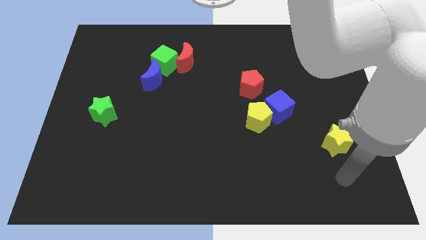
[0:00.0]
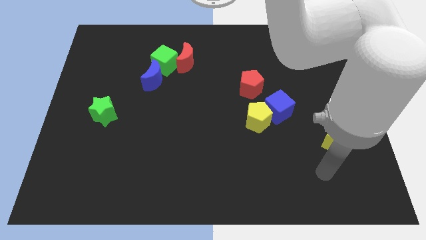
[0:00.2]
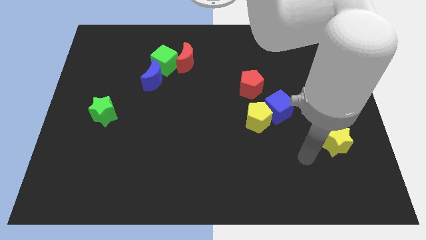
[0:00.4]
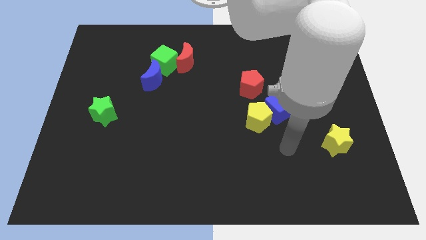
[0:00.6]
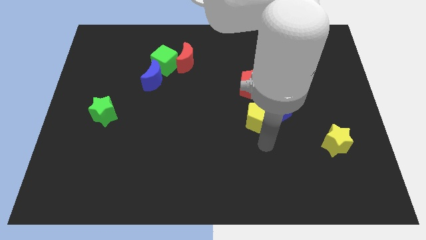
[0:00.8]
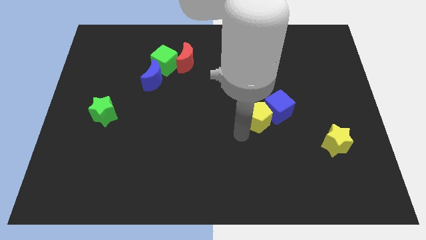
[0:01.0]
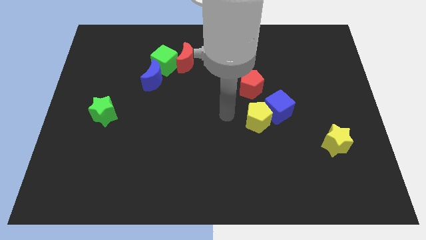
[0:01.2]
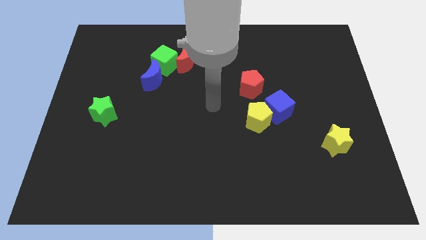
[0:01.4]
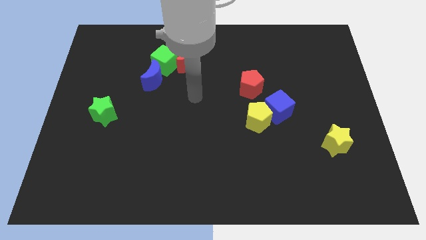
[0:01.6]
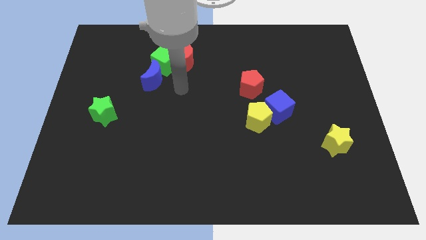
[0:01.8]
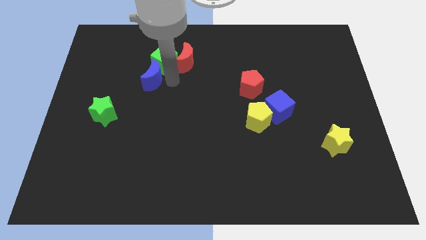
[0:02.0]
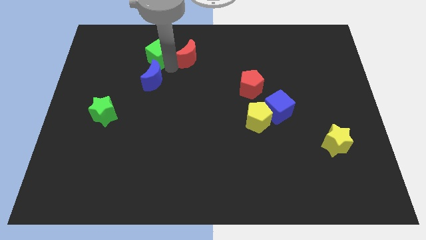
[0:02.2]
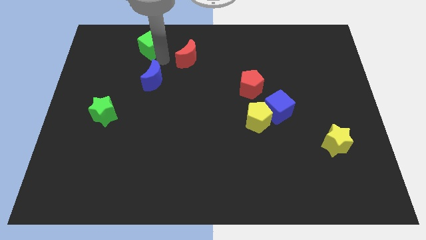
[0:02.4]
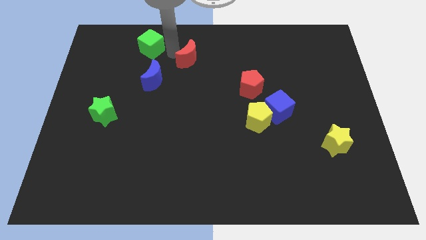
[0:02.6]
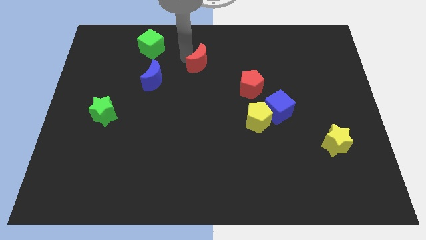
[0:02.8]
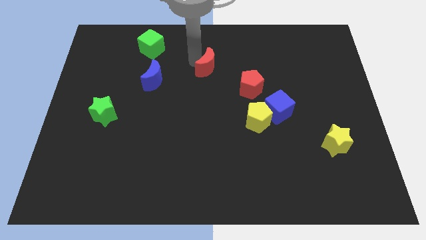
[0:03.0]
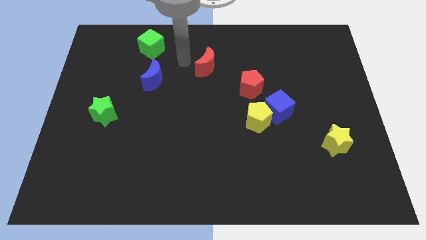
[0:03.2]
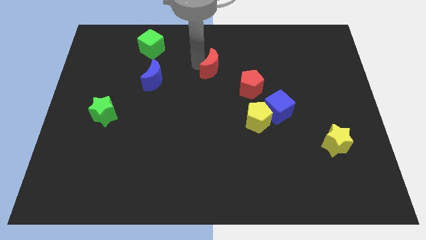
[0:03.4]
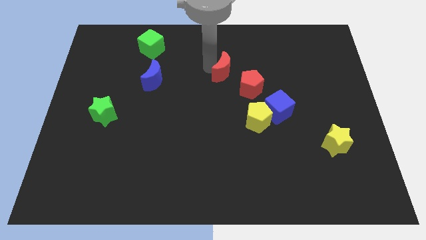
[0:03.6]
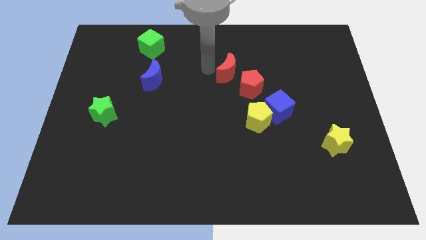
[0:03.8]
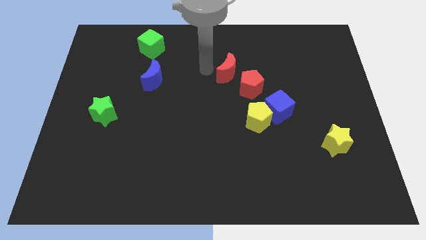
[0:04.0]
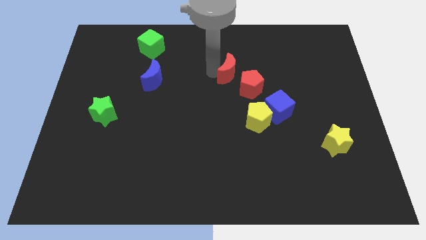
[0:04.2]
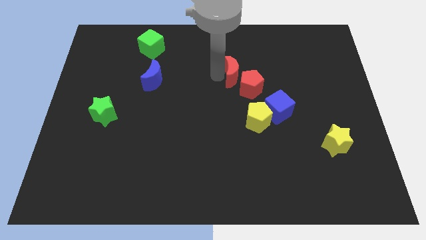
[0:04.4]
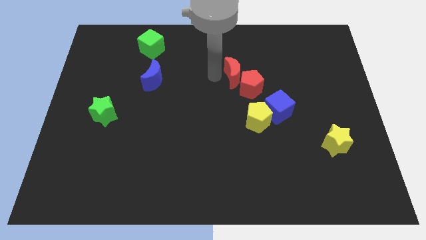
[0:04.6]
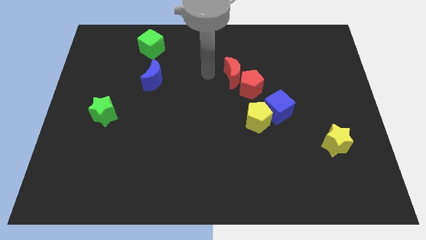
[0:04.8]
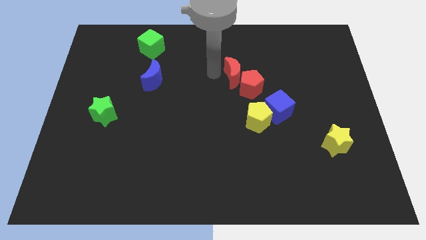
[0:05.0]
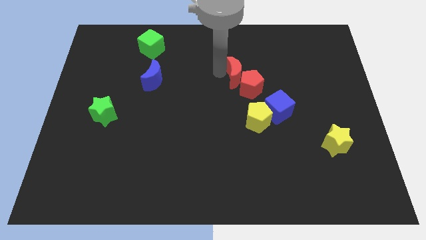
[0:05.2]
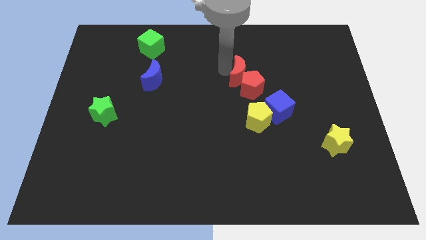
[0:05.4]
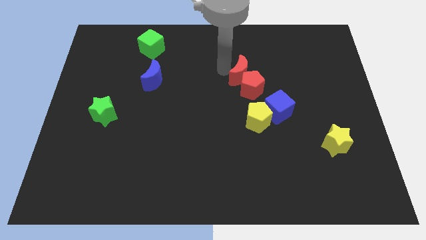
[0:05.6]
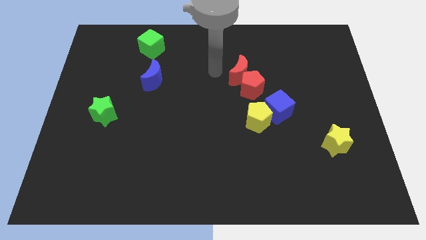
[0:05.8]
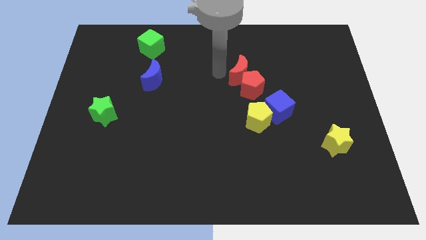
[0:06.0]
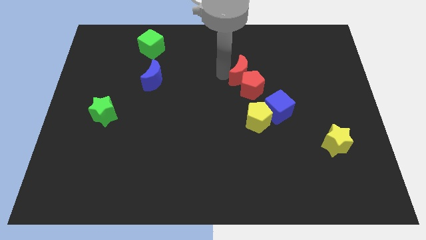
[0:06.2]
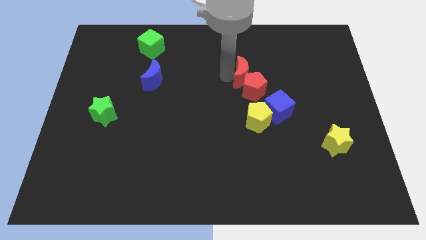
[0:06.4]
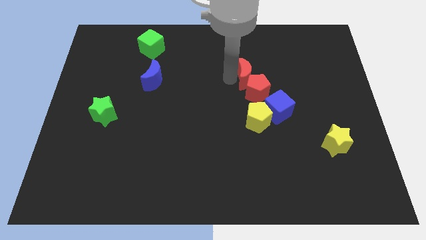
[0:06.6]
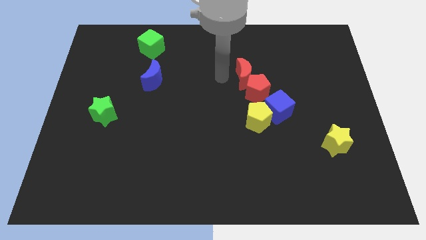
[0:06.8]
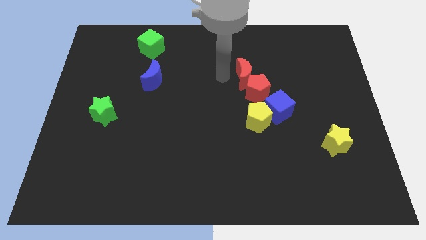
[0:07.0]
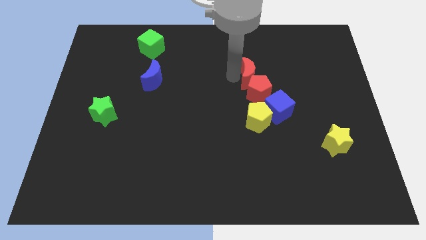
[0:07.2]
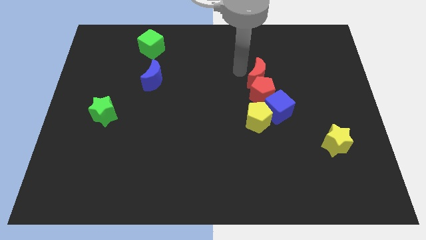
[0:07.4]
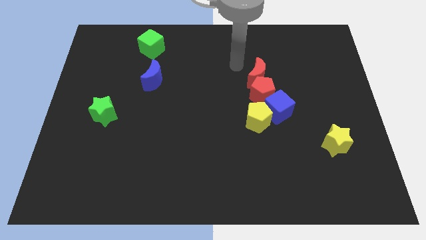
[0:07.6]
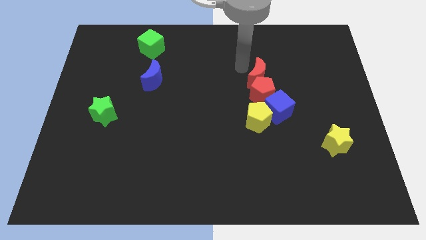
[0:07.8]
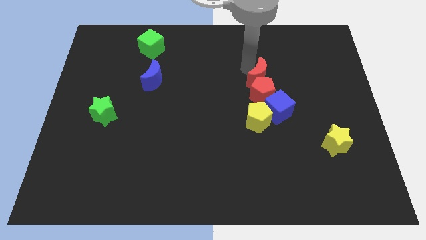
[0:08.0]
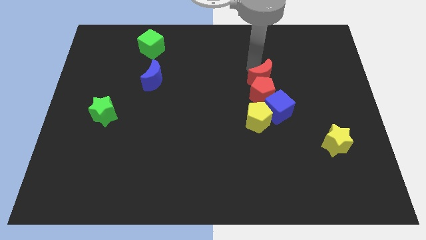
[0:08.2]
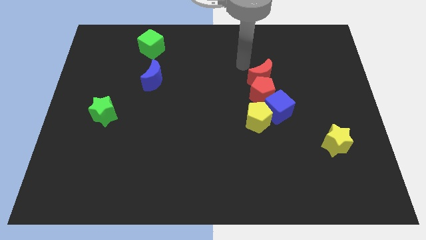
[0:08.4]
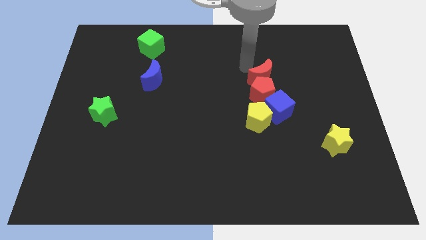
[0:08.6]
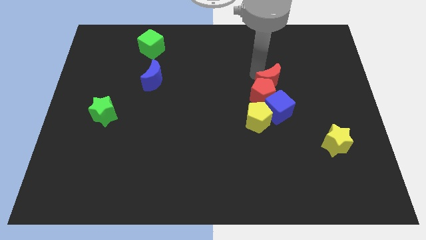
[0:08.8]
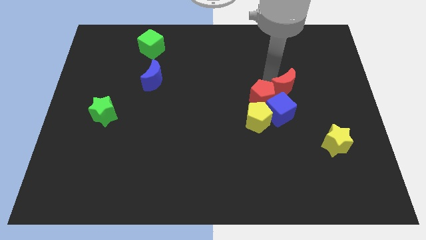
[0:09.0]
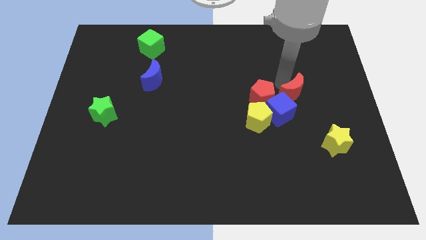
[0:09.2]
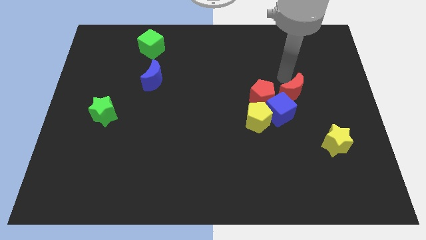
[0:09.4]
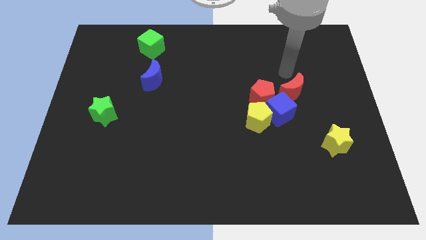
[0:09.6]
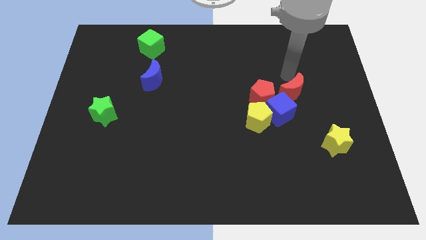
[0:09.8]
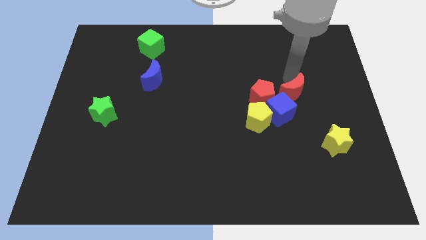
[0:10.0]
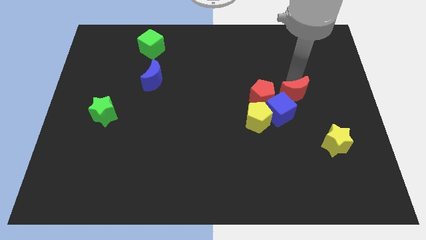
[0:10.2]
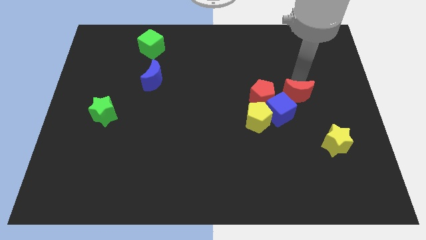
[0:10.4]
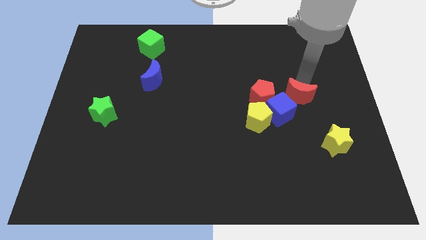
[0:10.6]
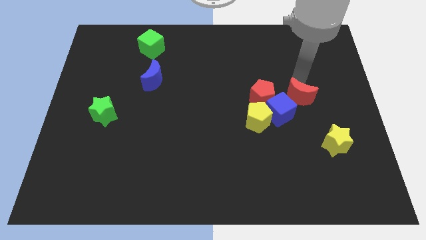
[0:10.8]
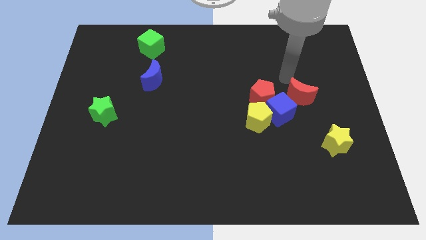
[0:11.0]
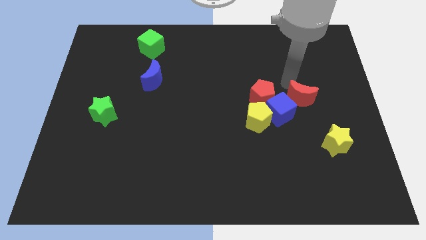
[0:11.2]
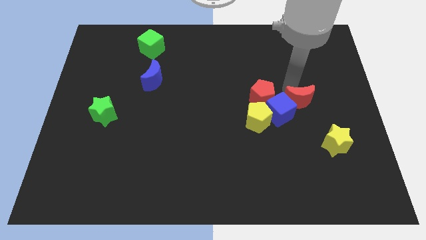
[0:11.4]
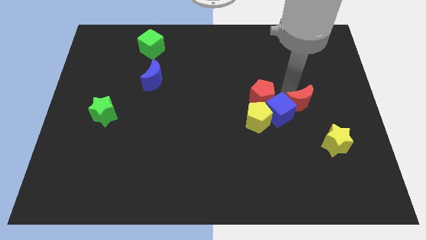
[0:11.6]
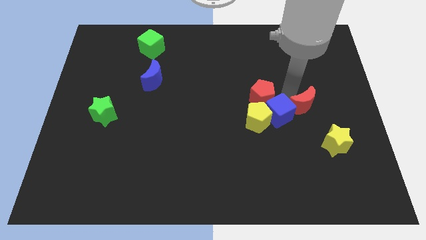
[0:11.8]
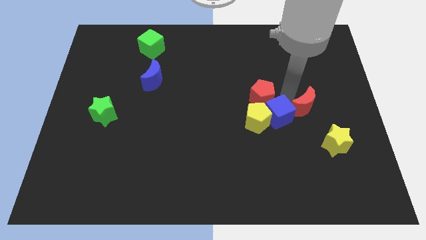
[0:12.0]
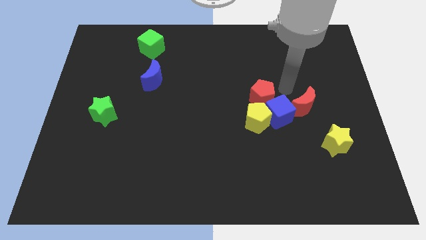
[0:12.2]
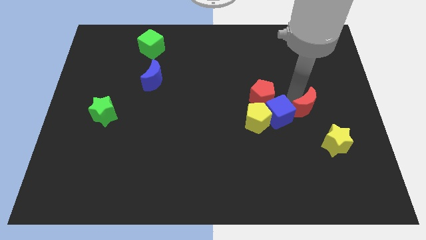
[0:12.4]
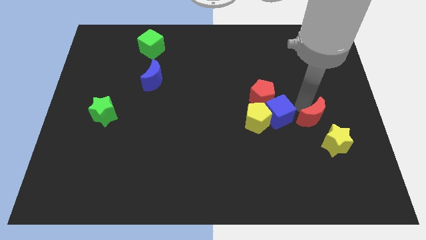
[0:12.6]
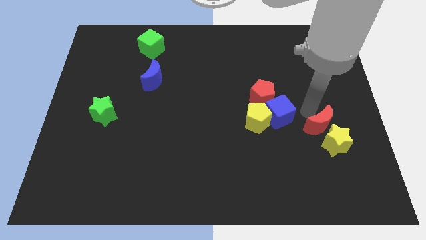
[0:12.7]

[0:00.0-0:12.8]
put the red moon towards the yellow star

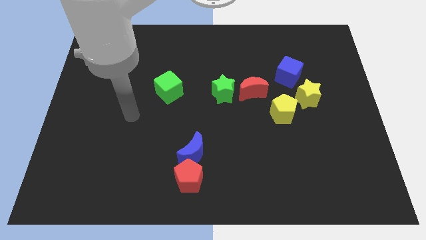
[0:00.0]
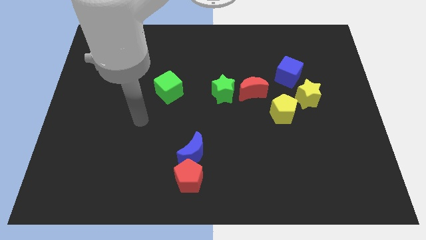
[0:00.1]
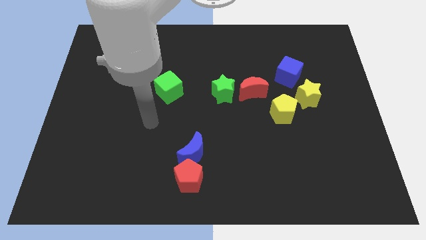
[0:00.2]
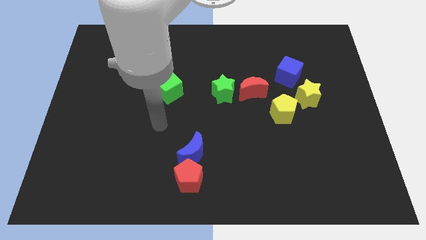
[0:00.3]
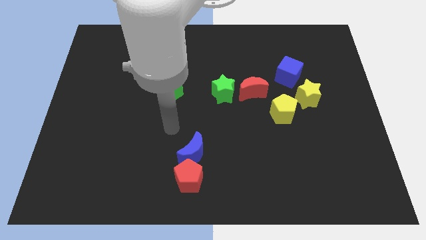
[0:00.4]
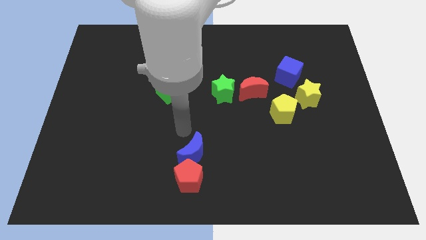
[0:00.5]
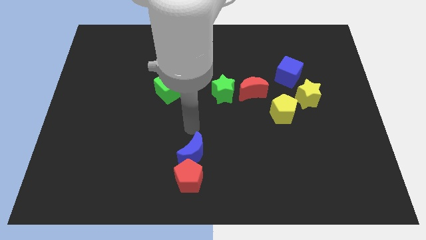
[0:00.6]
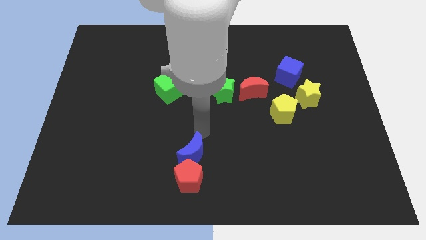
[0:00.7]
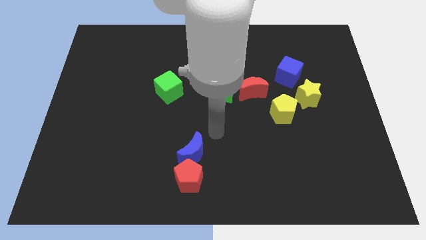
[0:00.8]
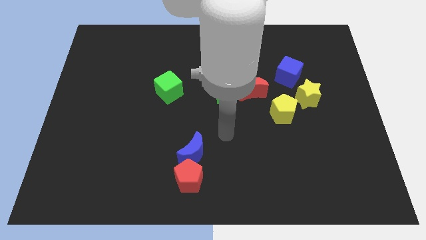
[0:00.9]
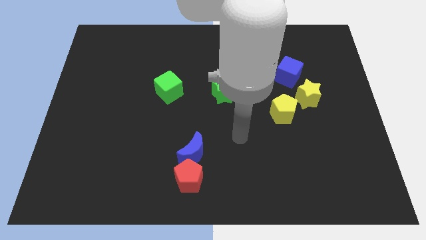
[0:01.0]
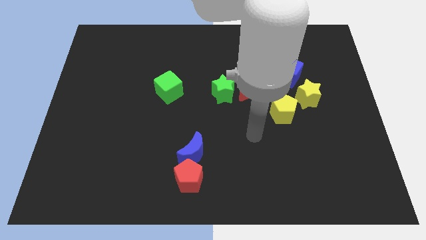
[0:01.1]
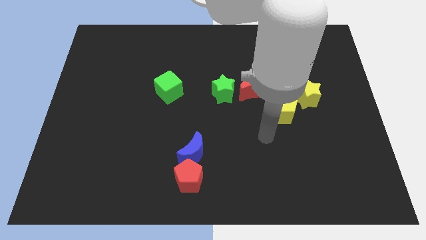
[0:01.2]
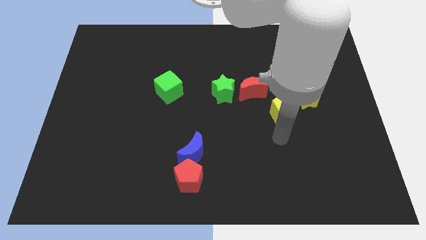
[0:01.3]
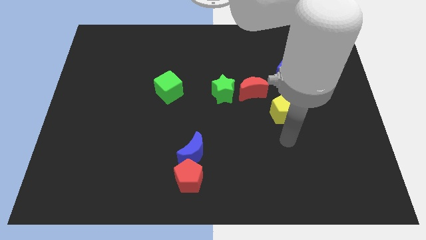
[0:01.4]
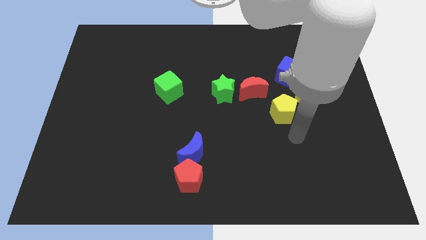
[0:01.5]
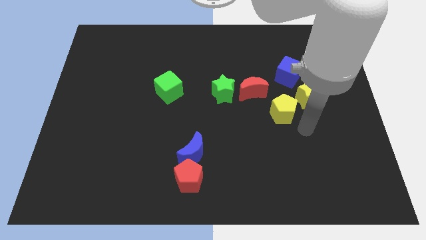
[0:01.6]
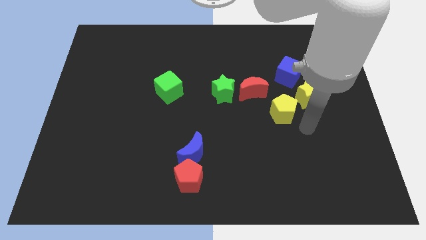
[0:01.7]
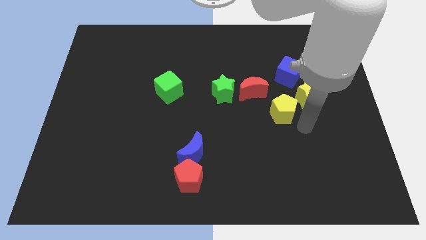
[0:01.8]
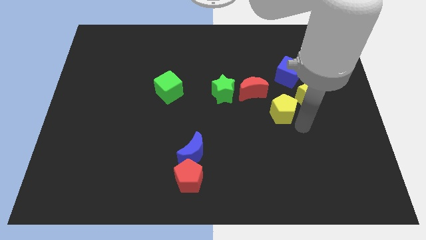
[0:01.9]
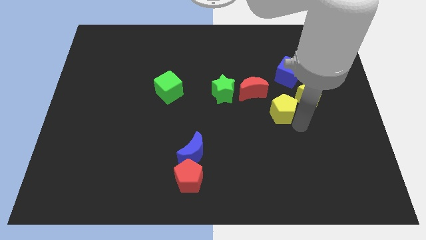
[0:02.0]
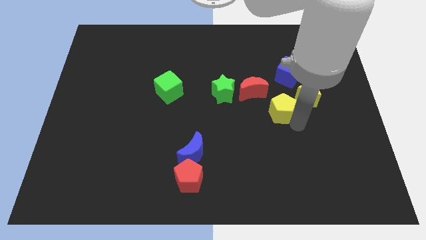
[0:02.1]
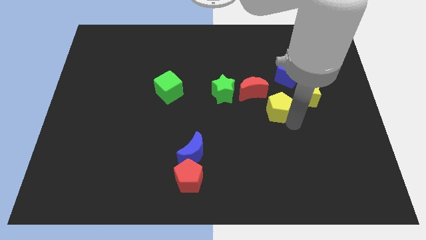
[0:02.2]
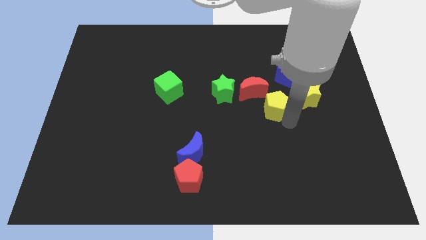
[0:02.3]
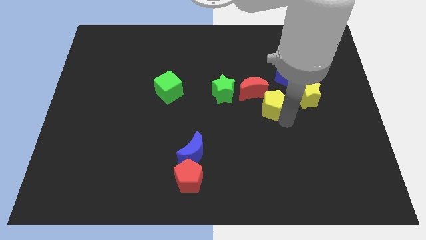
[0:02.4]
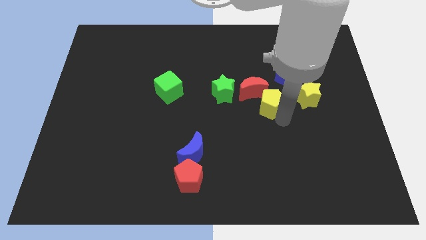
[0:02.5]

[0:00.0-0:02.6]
move the yellow pentagon to the red moon
